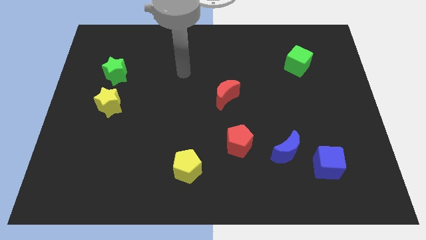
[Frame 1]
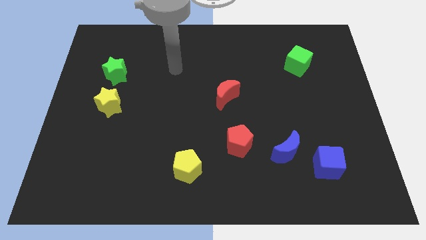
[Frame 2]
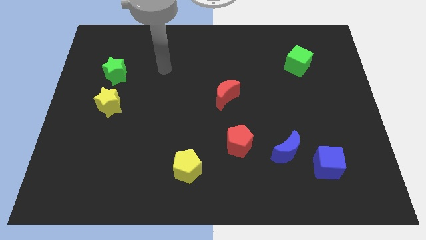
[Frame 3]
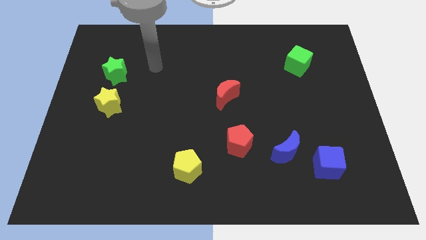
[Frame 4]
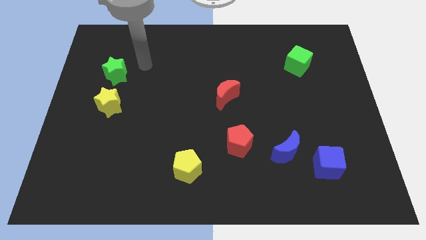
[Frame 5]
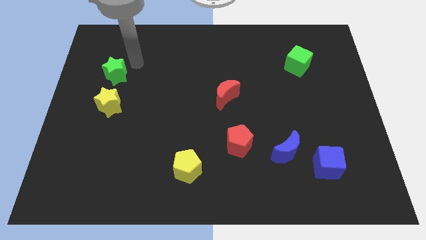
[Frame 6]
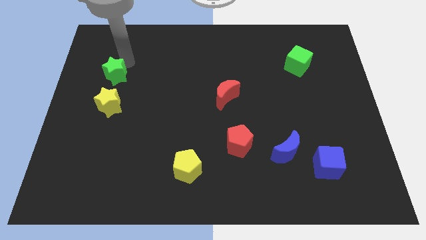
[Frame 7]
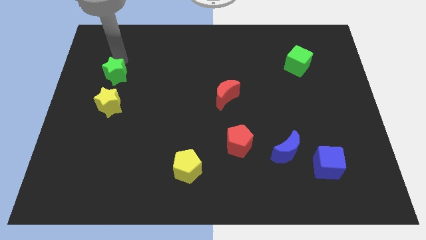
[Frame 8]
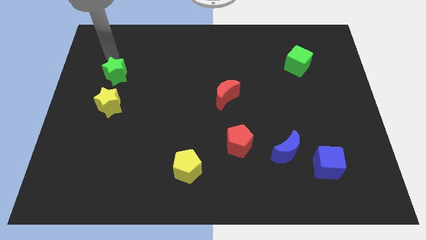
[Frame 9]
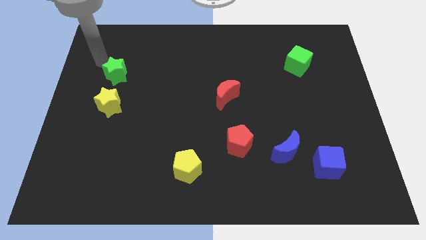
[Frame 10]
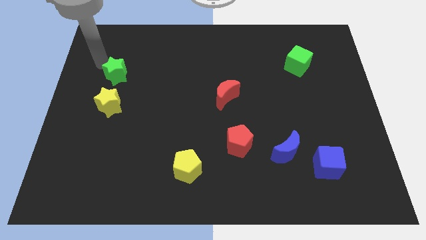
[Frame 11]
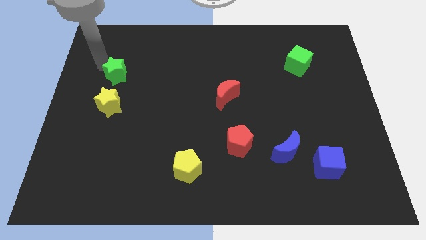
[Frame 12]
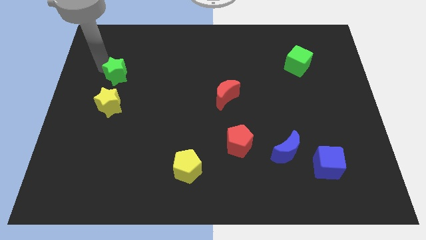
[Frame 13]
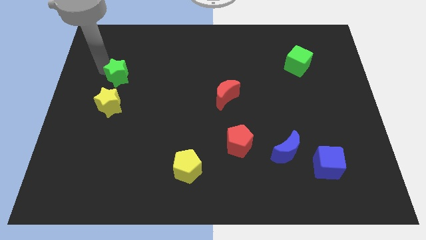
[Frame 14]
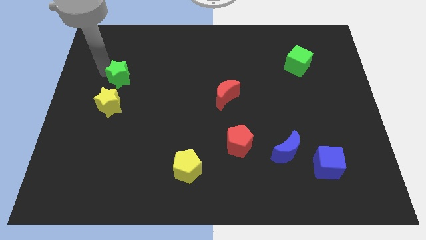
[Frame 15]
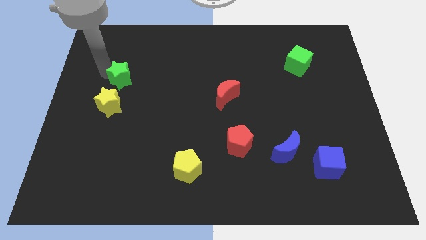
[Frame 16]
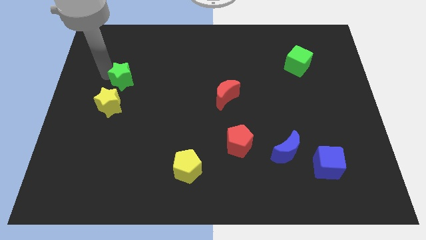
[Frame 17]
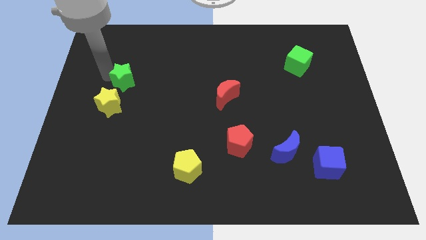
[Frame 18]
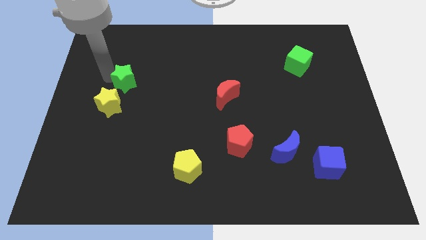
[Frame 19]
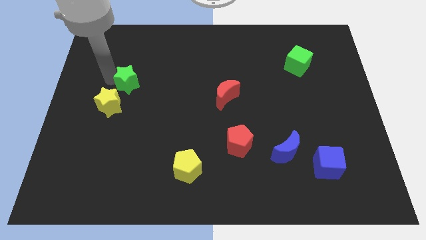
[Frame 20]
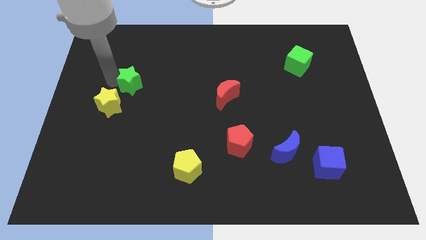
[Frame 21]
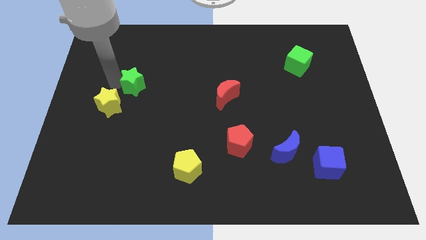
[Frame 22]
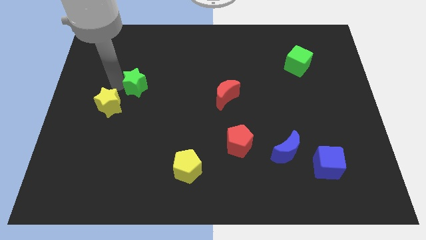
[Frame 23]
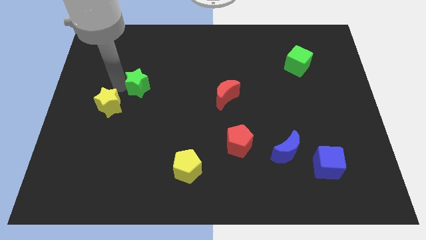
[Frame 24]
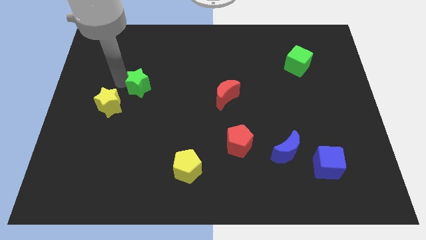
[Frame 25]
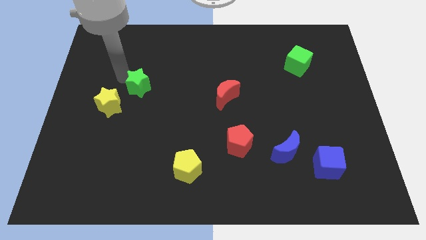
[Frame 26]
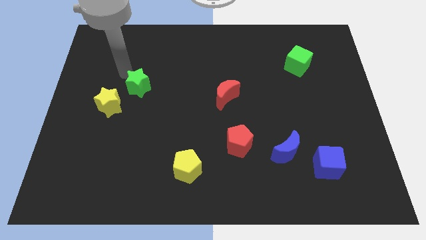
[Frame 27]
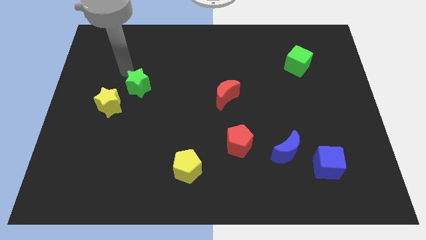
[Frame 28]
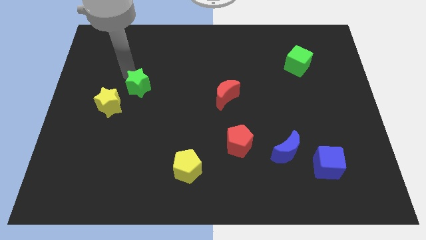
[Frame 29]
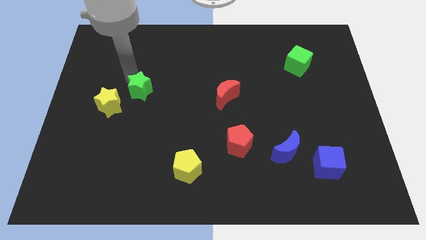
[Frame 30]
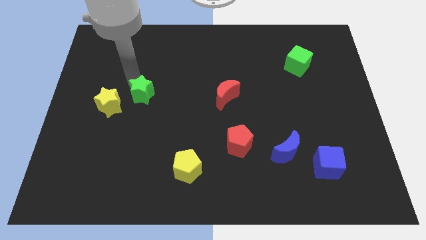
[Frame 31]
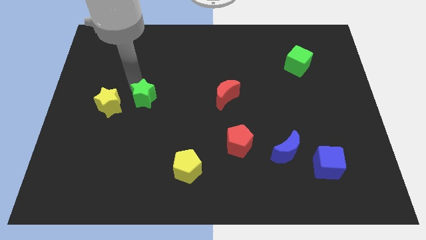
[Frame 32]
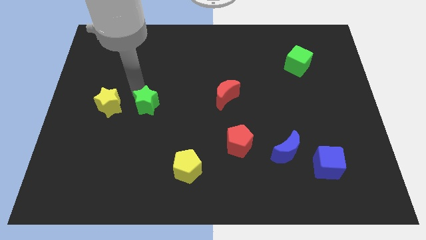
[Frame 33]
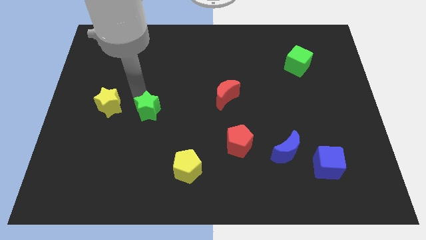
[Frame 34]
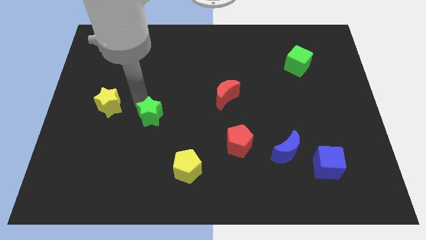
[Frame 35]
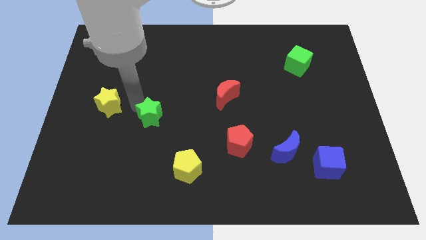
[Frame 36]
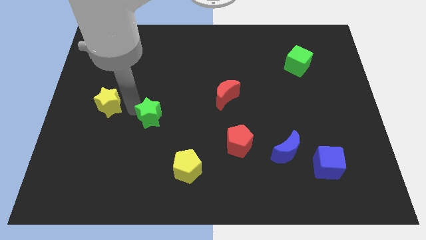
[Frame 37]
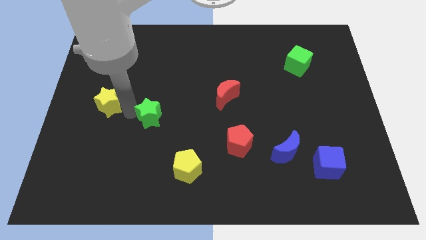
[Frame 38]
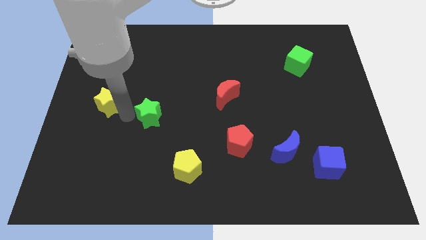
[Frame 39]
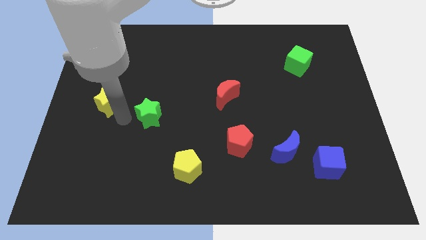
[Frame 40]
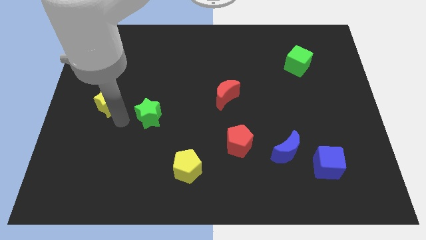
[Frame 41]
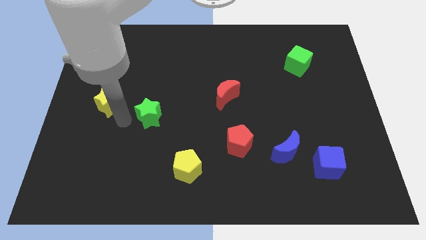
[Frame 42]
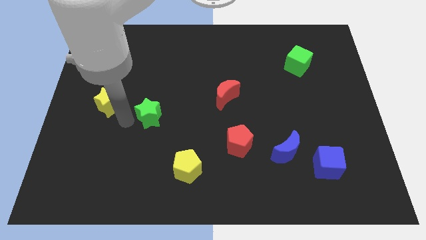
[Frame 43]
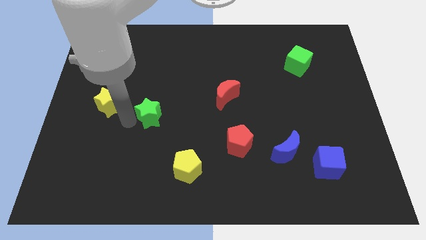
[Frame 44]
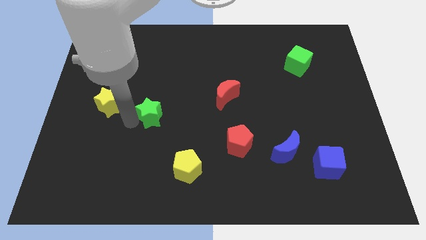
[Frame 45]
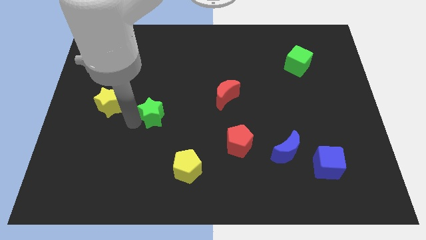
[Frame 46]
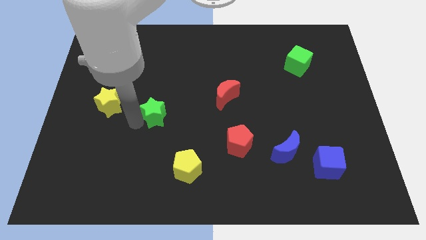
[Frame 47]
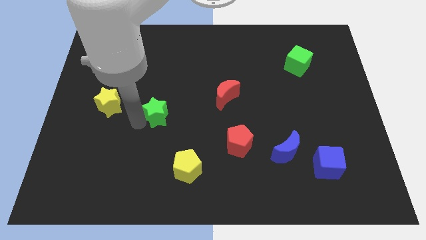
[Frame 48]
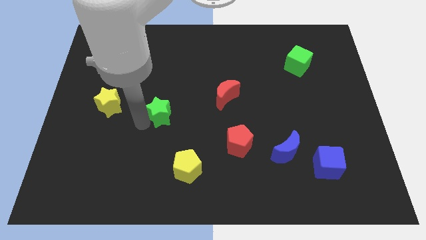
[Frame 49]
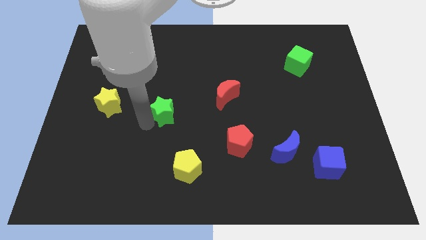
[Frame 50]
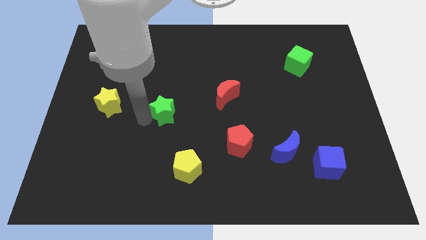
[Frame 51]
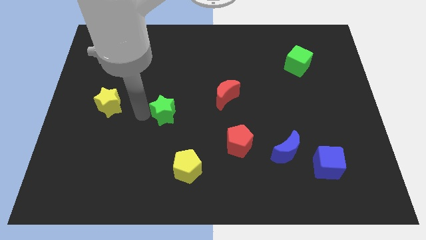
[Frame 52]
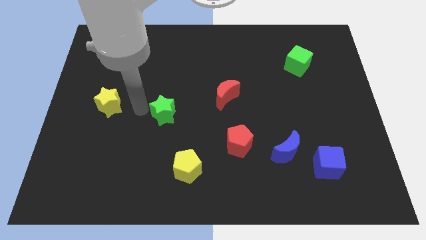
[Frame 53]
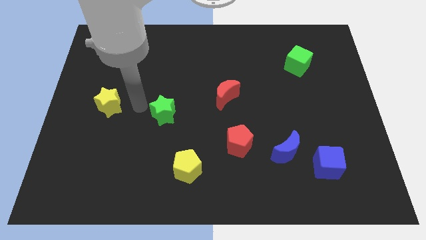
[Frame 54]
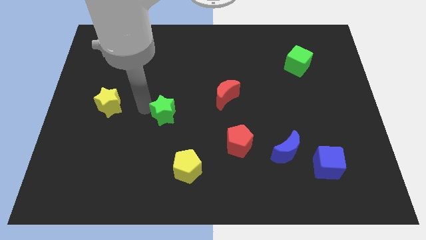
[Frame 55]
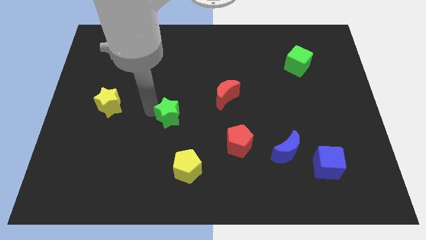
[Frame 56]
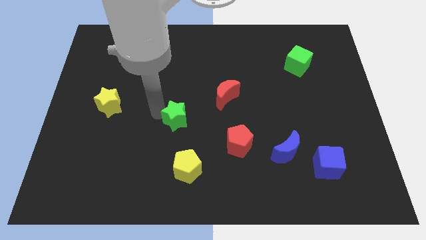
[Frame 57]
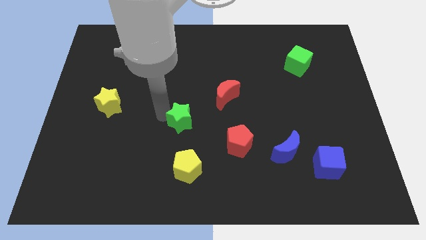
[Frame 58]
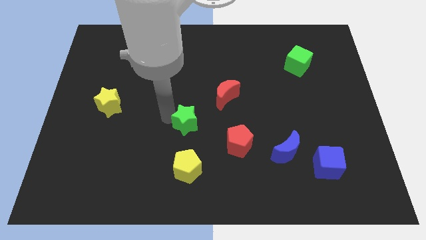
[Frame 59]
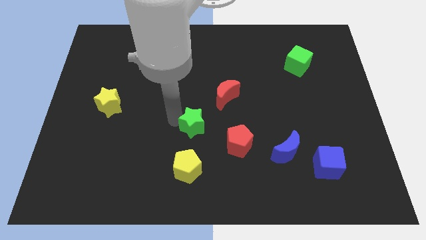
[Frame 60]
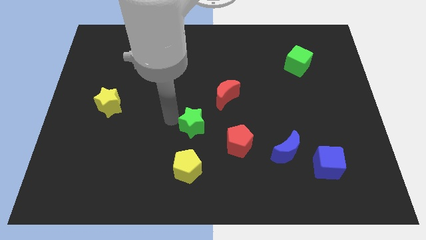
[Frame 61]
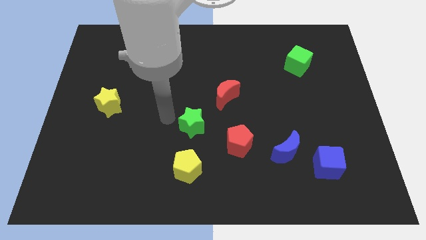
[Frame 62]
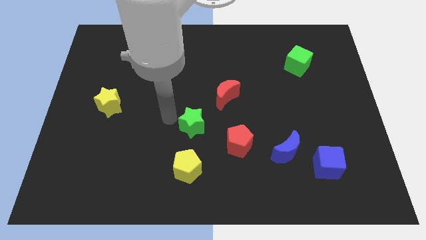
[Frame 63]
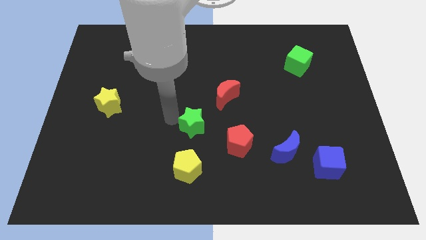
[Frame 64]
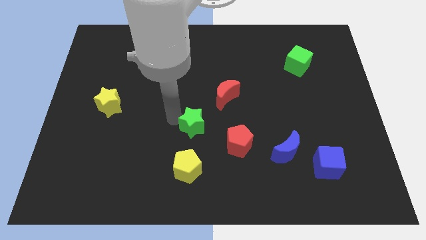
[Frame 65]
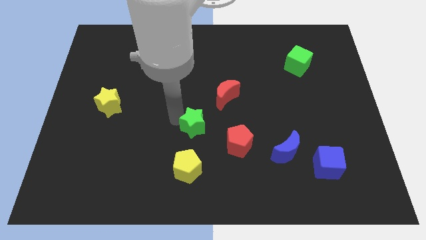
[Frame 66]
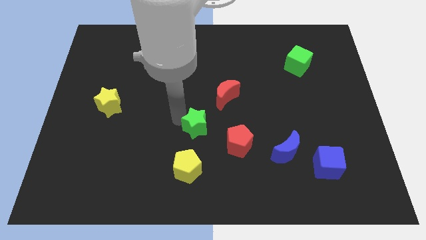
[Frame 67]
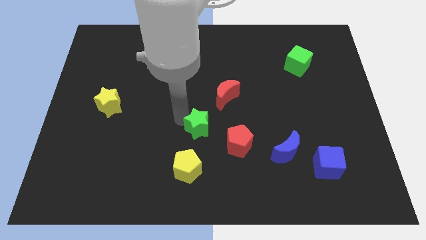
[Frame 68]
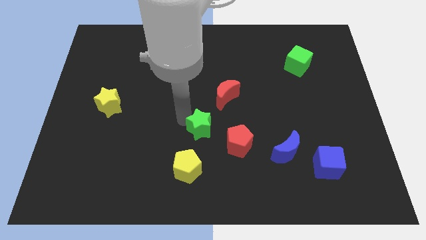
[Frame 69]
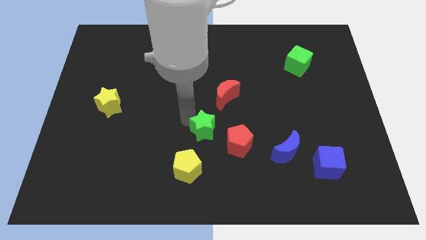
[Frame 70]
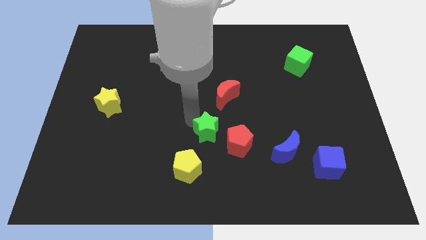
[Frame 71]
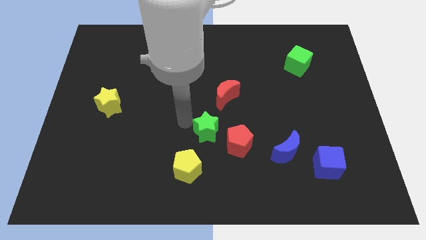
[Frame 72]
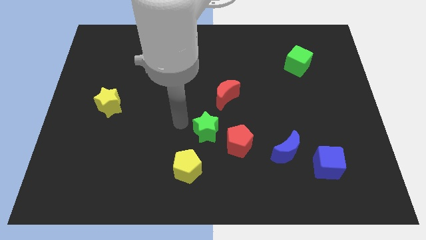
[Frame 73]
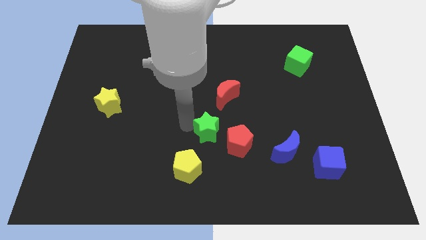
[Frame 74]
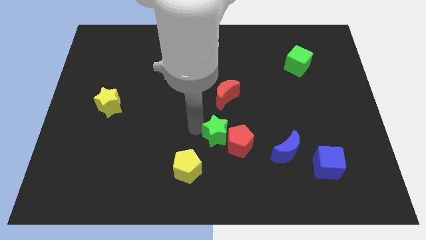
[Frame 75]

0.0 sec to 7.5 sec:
slide the green star towards the red pentagon

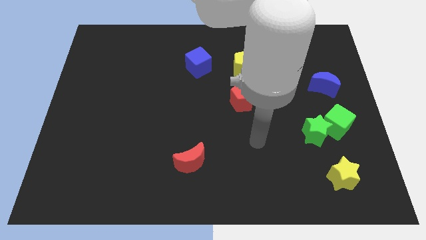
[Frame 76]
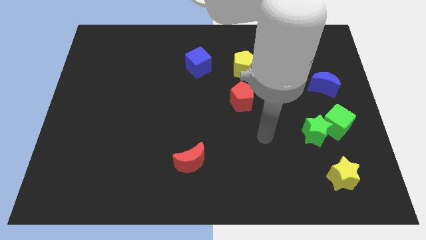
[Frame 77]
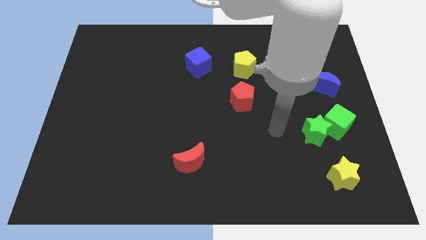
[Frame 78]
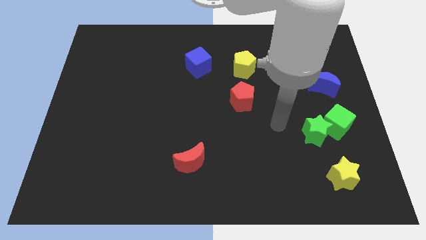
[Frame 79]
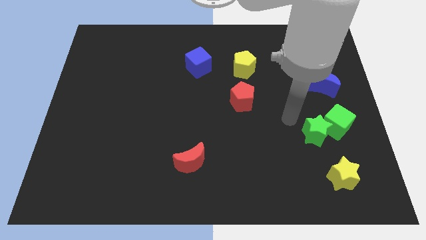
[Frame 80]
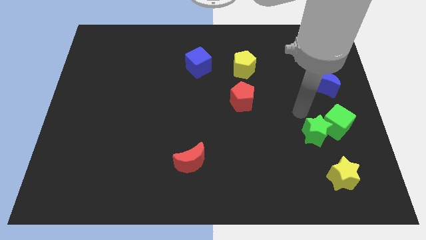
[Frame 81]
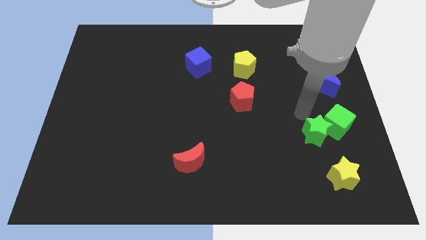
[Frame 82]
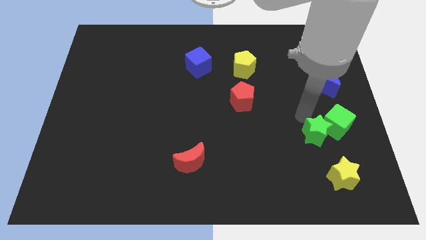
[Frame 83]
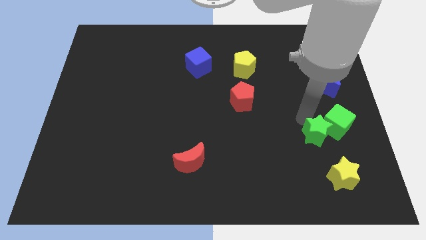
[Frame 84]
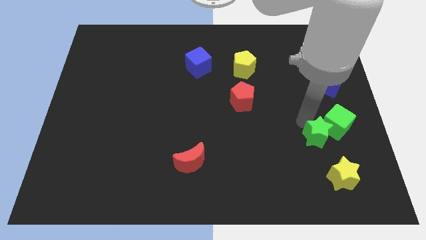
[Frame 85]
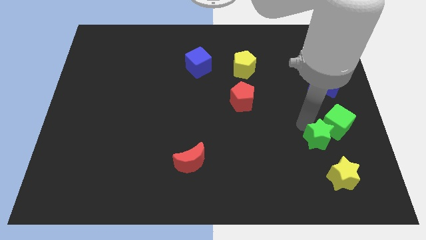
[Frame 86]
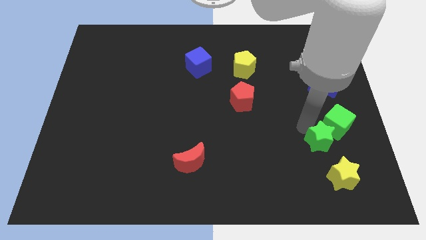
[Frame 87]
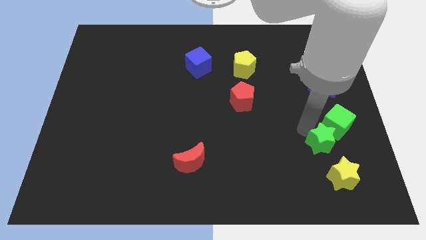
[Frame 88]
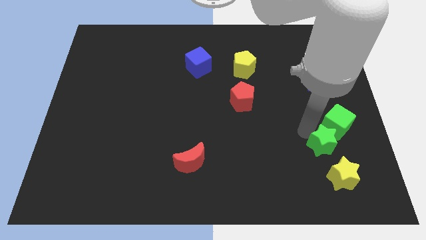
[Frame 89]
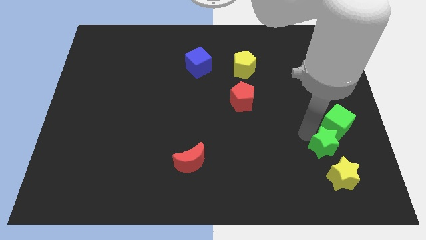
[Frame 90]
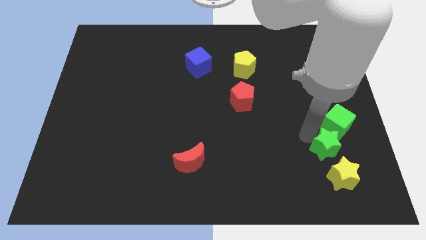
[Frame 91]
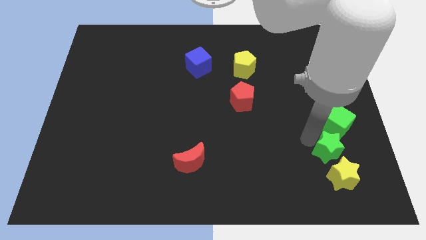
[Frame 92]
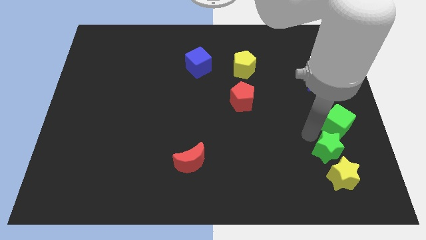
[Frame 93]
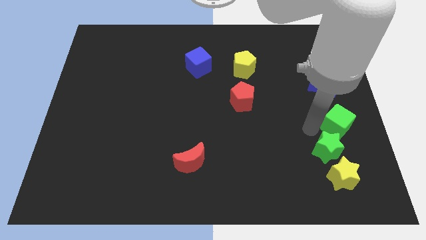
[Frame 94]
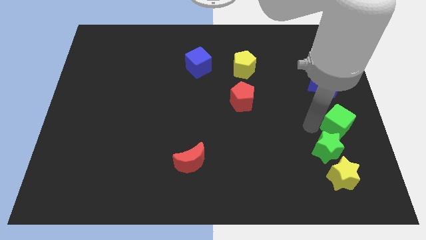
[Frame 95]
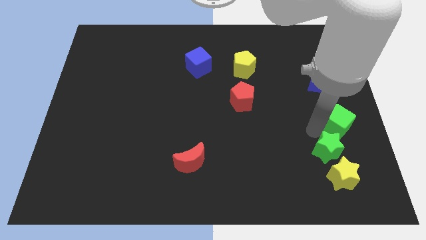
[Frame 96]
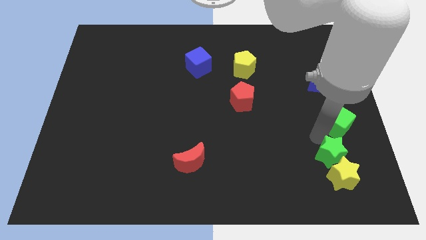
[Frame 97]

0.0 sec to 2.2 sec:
push the green star close to the yellow star
